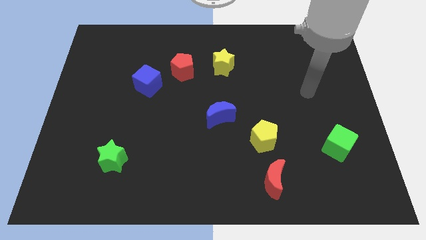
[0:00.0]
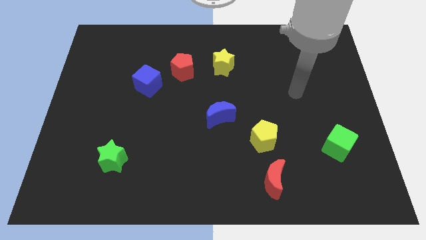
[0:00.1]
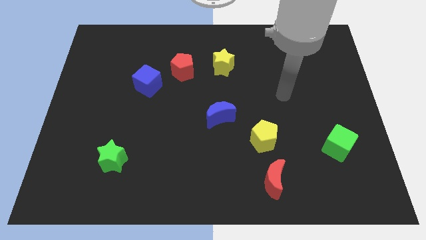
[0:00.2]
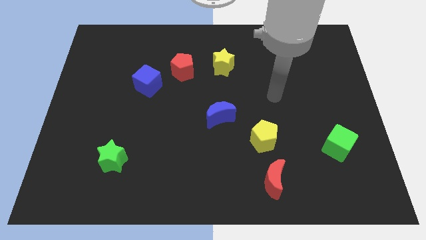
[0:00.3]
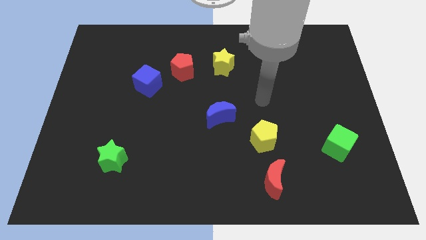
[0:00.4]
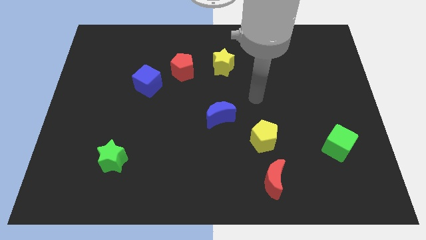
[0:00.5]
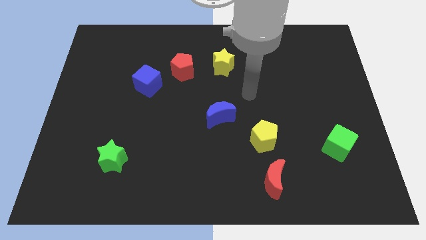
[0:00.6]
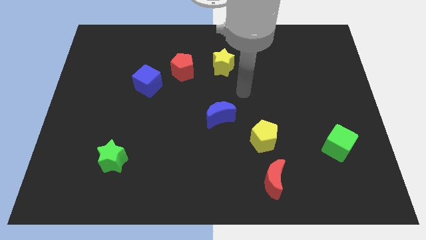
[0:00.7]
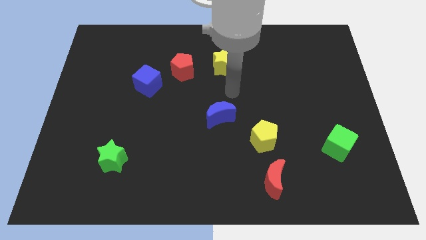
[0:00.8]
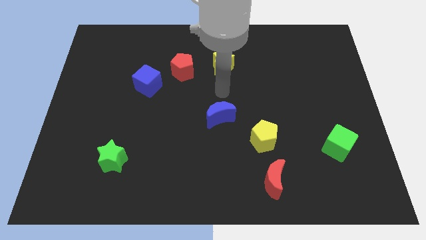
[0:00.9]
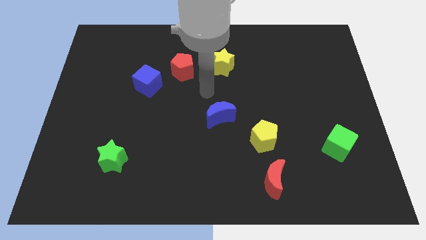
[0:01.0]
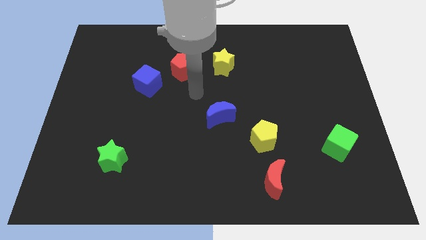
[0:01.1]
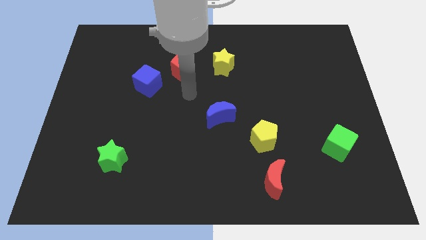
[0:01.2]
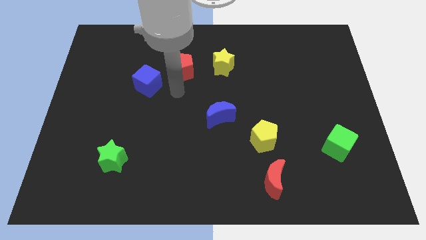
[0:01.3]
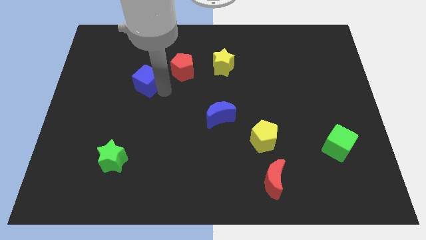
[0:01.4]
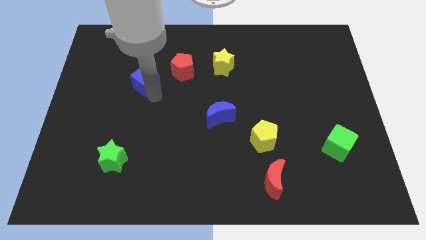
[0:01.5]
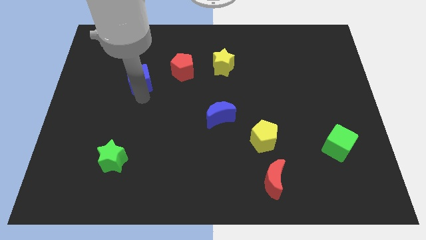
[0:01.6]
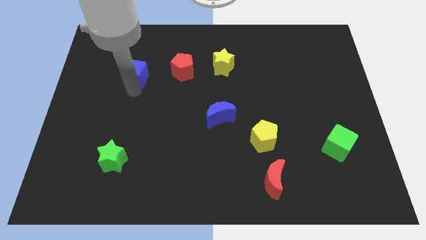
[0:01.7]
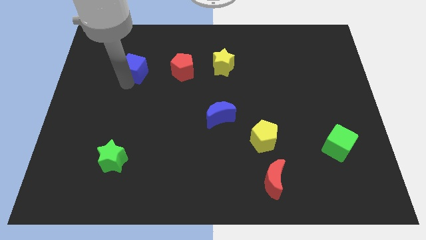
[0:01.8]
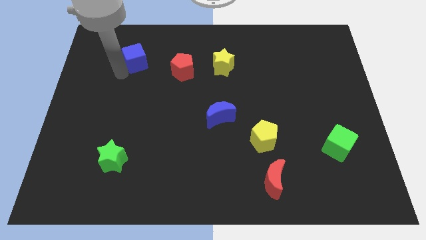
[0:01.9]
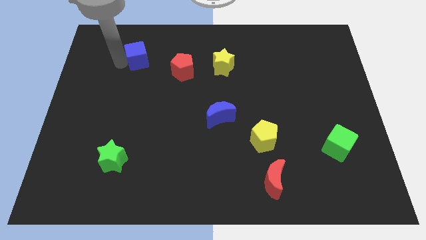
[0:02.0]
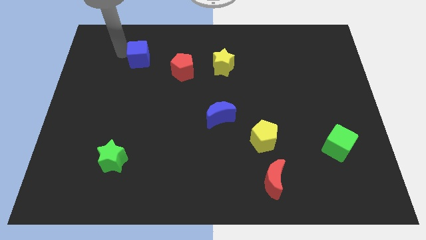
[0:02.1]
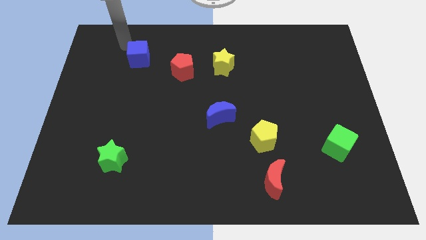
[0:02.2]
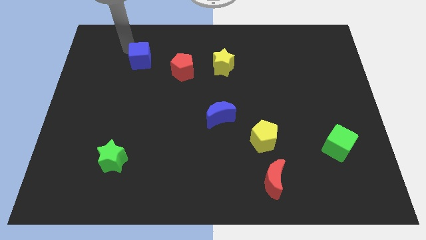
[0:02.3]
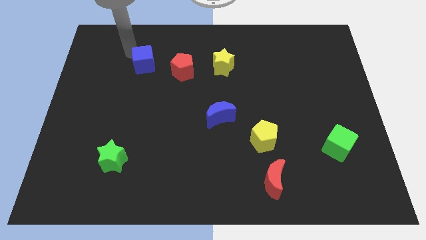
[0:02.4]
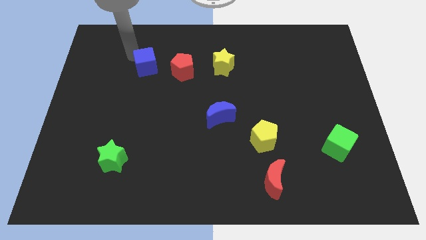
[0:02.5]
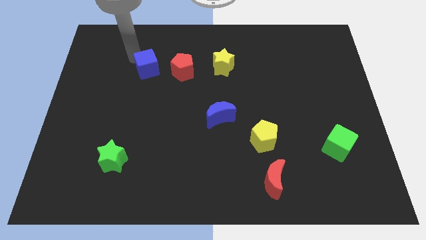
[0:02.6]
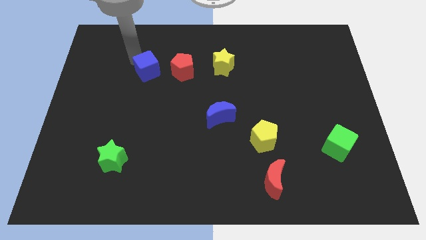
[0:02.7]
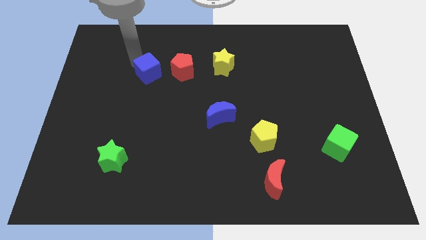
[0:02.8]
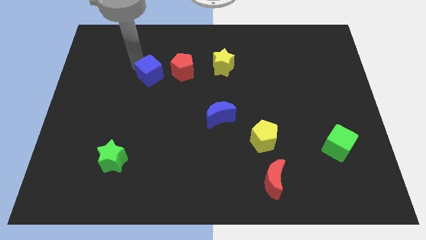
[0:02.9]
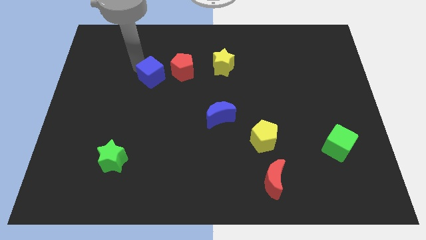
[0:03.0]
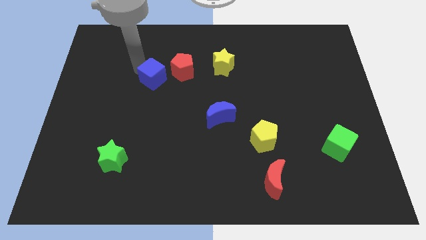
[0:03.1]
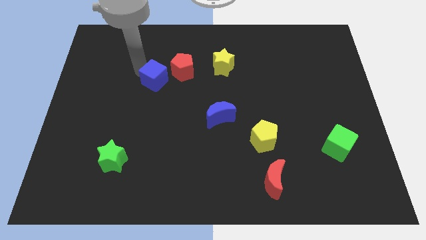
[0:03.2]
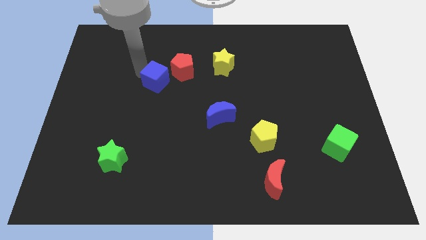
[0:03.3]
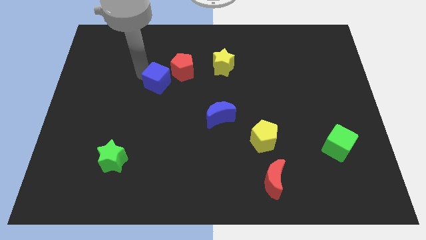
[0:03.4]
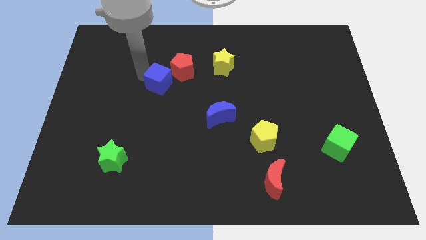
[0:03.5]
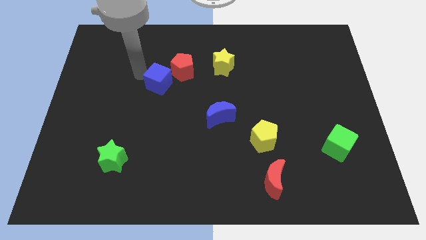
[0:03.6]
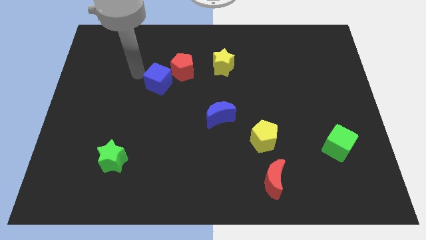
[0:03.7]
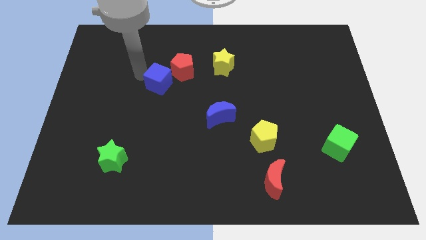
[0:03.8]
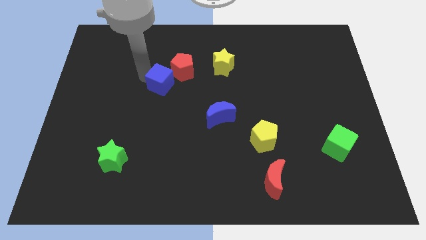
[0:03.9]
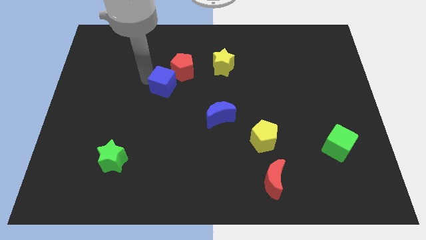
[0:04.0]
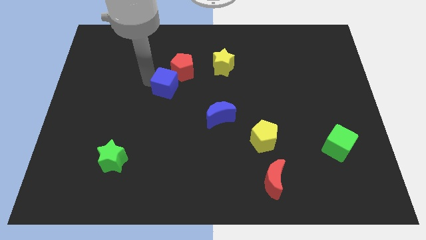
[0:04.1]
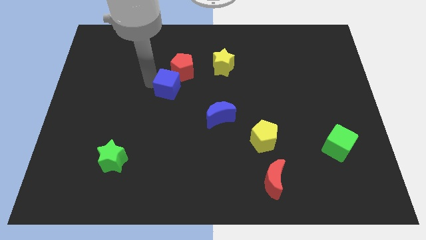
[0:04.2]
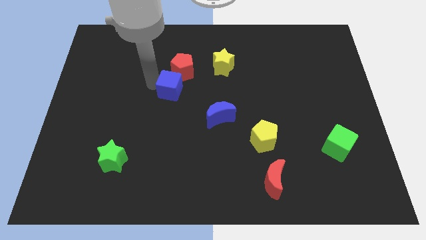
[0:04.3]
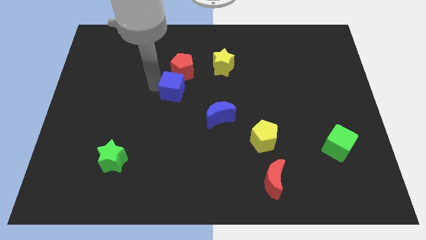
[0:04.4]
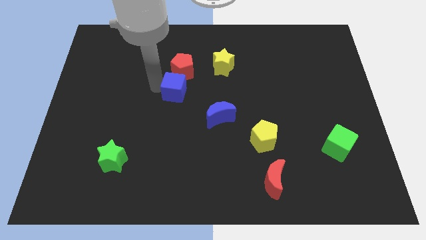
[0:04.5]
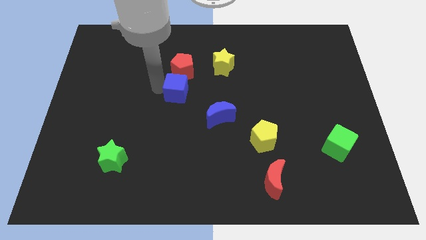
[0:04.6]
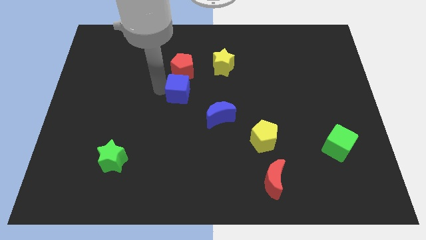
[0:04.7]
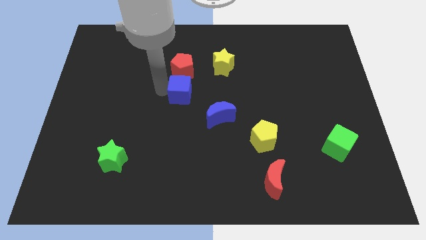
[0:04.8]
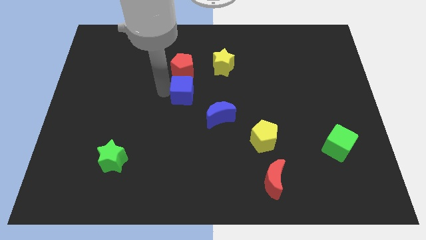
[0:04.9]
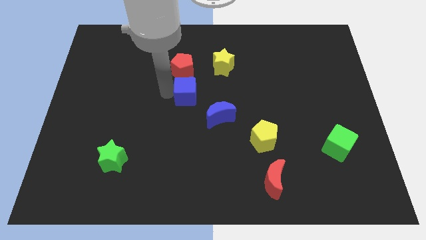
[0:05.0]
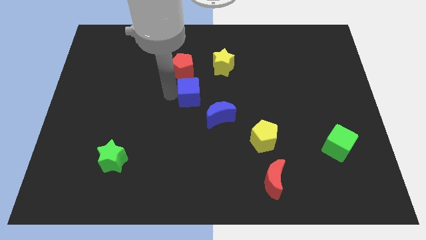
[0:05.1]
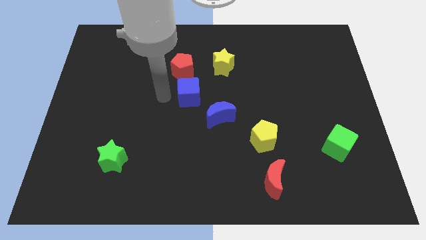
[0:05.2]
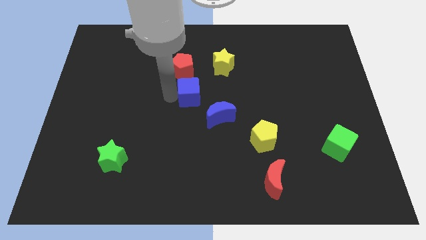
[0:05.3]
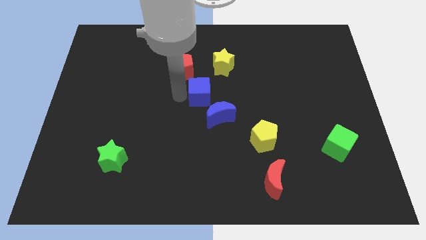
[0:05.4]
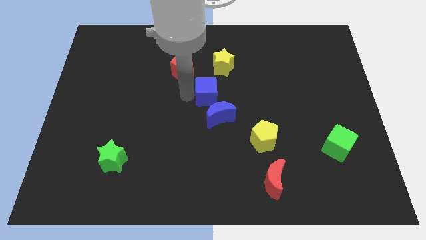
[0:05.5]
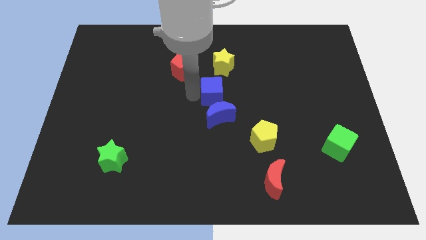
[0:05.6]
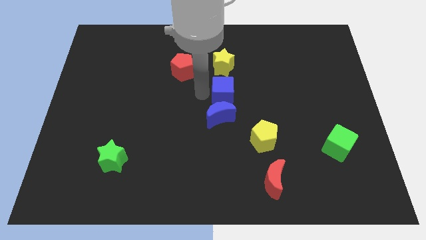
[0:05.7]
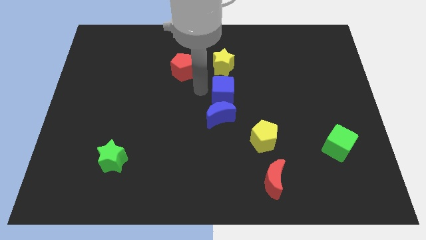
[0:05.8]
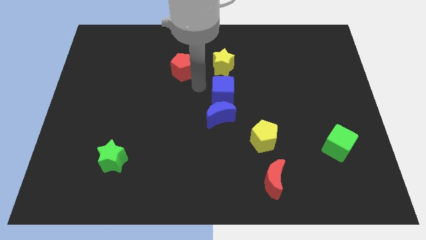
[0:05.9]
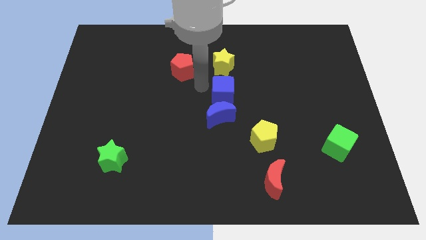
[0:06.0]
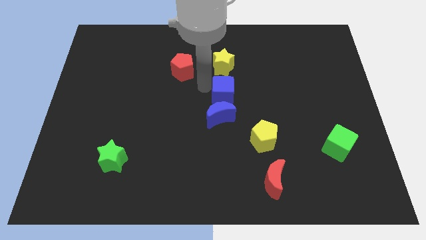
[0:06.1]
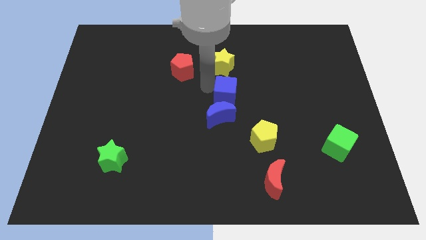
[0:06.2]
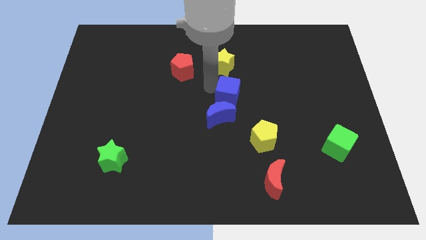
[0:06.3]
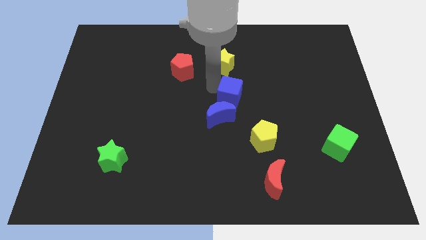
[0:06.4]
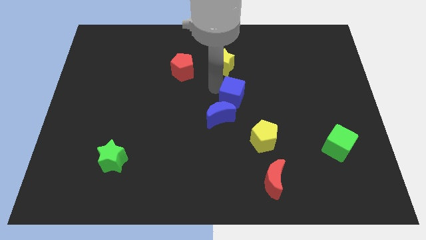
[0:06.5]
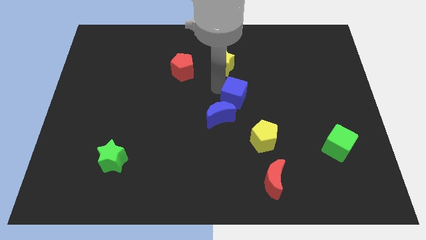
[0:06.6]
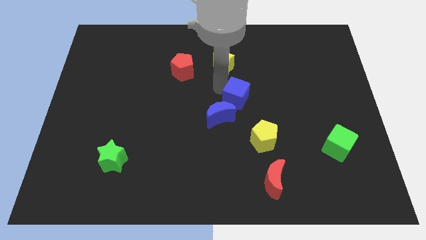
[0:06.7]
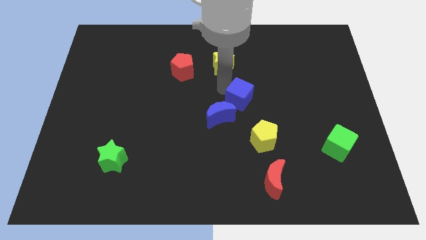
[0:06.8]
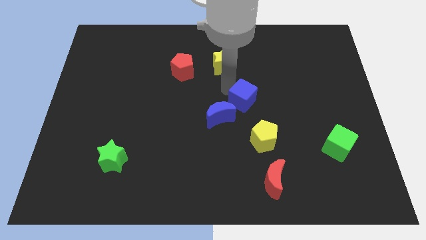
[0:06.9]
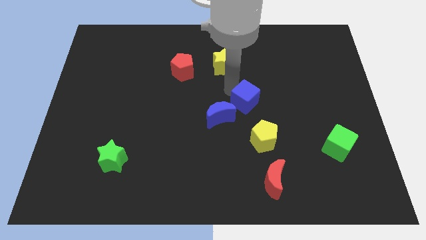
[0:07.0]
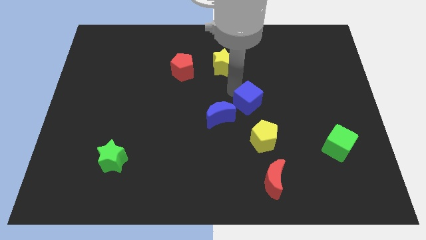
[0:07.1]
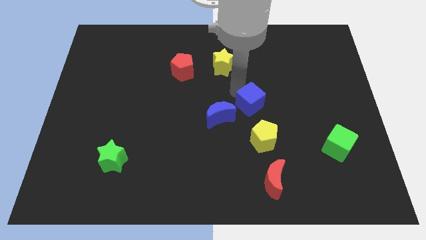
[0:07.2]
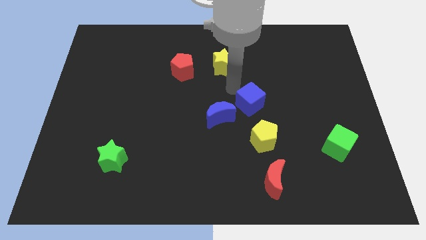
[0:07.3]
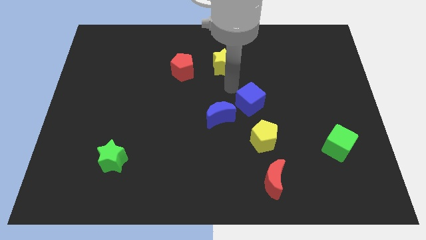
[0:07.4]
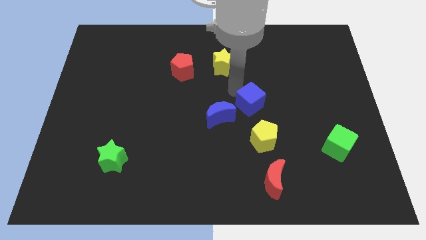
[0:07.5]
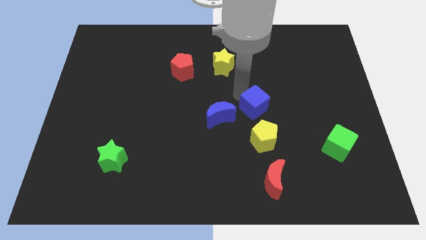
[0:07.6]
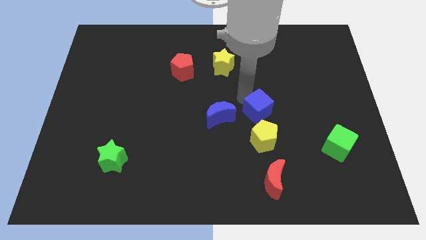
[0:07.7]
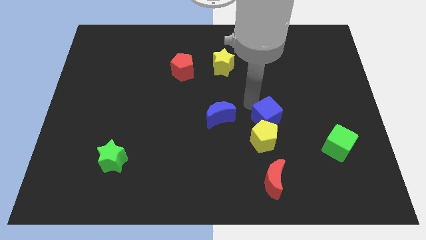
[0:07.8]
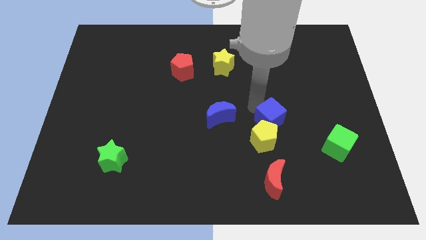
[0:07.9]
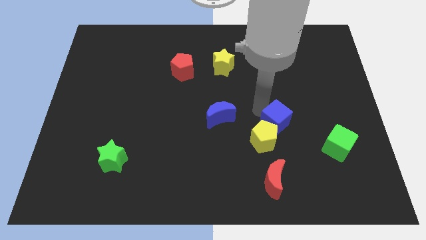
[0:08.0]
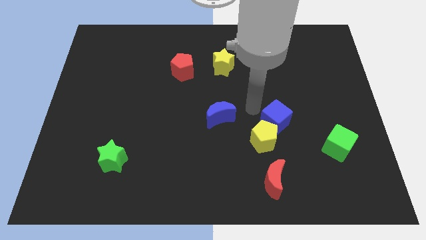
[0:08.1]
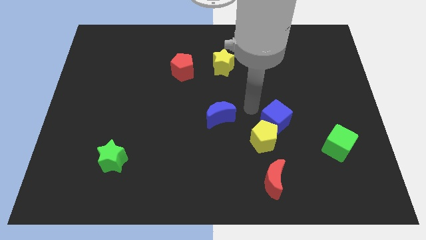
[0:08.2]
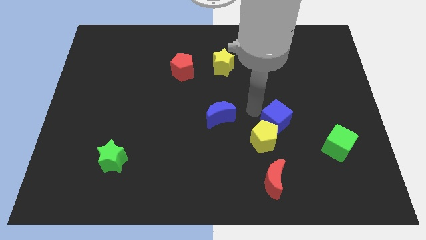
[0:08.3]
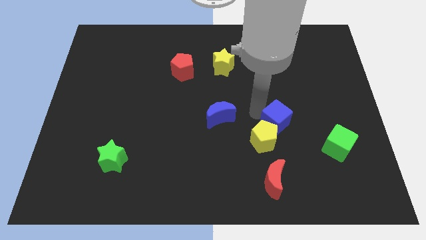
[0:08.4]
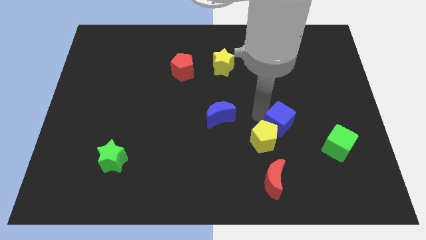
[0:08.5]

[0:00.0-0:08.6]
slide the blue cube to the right side of the yellow pentagon
